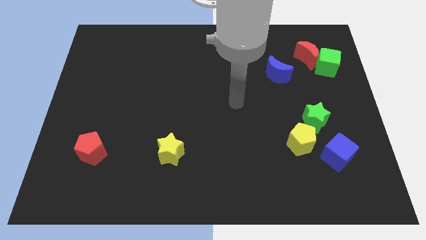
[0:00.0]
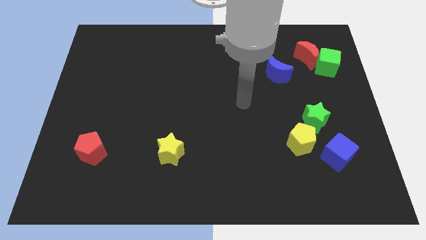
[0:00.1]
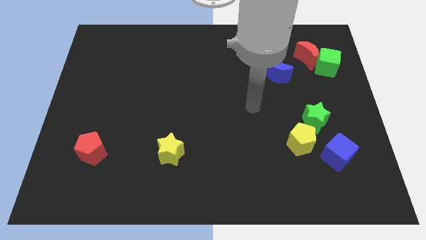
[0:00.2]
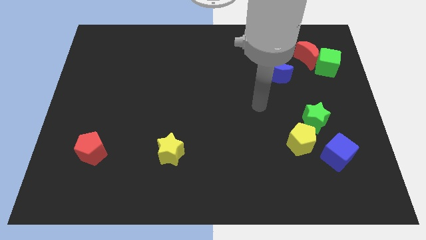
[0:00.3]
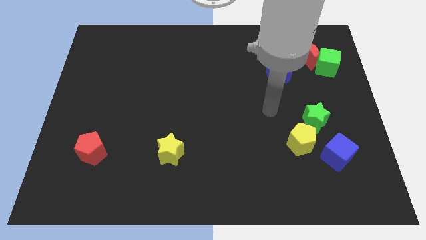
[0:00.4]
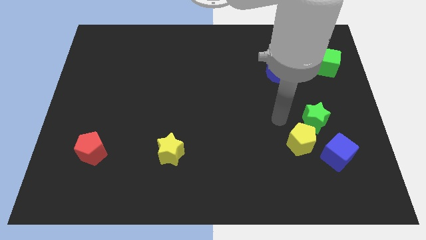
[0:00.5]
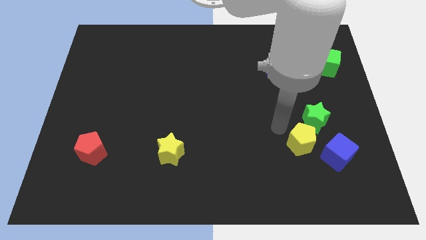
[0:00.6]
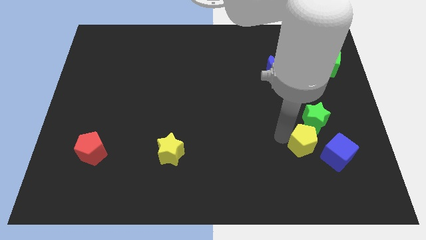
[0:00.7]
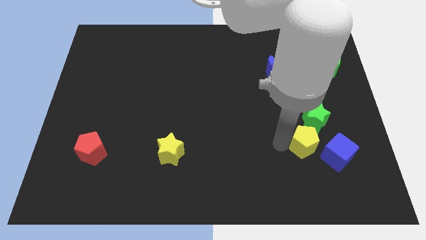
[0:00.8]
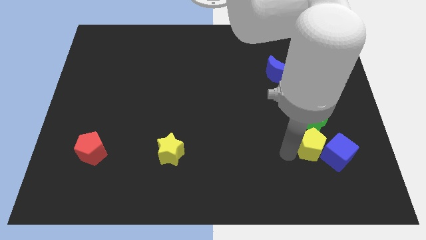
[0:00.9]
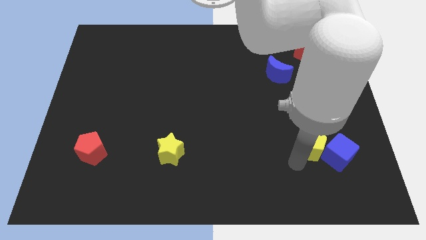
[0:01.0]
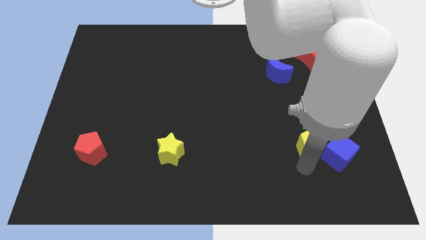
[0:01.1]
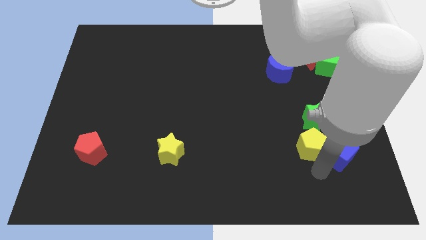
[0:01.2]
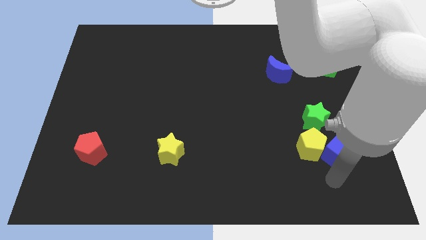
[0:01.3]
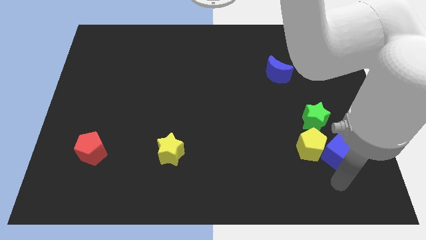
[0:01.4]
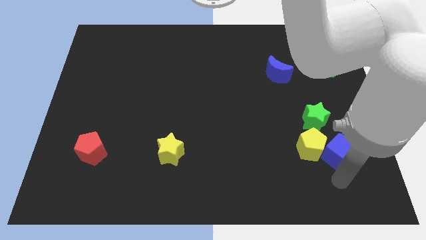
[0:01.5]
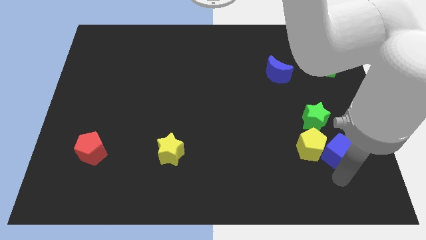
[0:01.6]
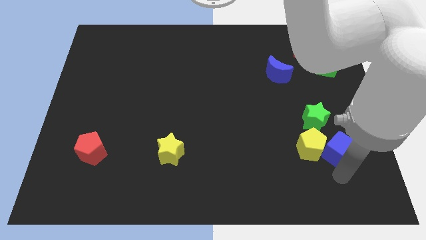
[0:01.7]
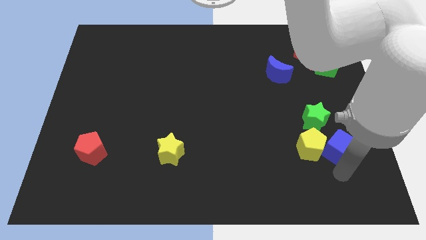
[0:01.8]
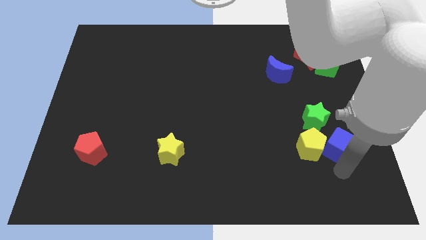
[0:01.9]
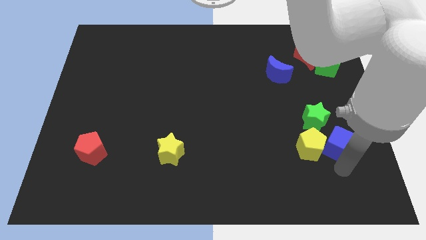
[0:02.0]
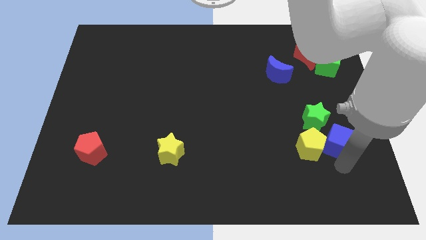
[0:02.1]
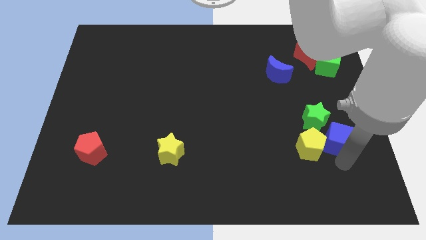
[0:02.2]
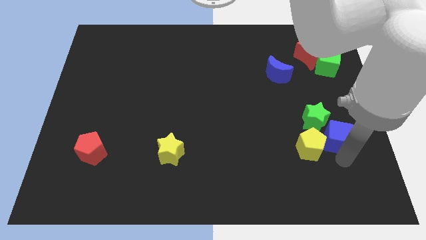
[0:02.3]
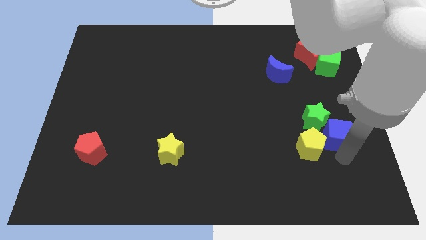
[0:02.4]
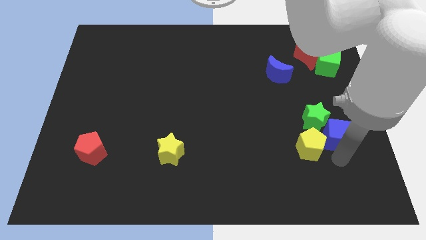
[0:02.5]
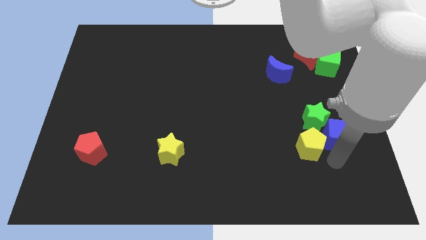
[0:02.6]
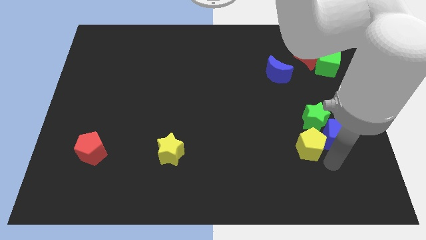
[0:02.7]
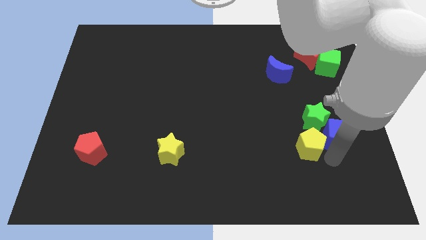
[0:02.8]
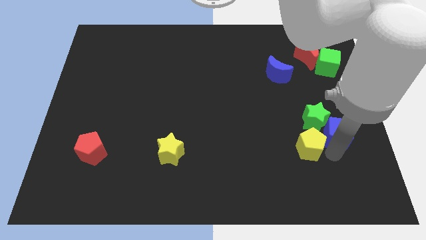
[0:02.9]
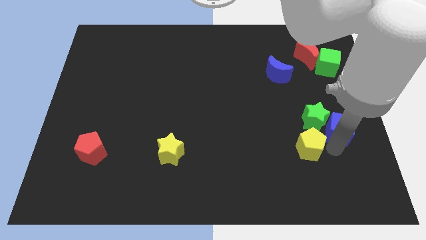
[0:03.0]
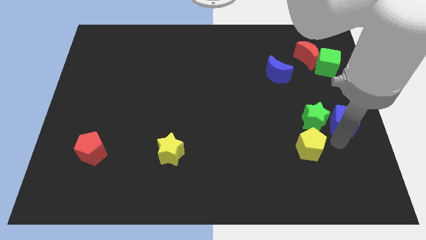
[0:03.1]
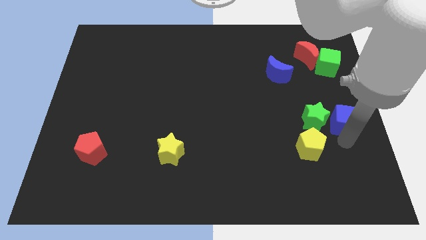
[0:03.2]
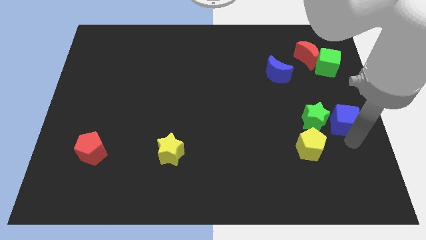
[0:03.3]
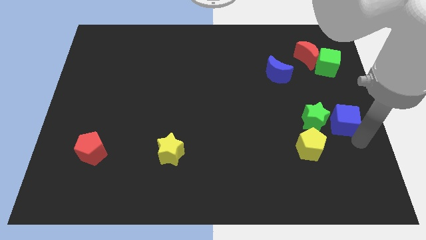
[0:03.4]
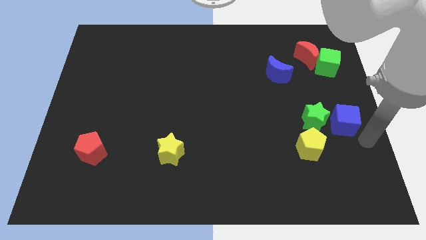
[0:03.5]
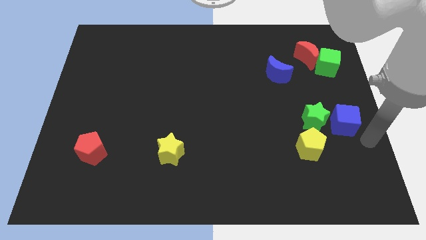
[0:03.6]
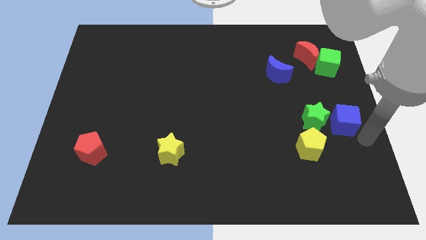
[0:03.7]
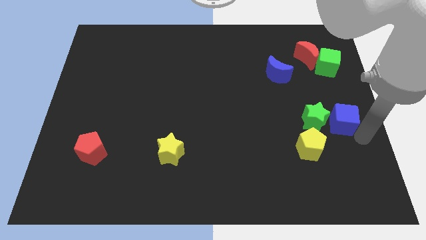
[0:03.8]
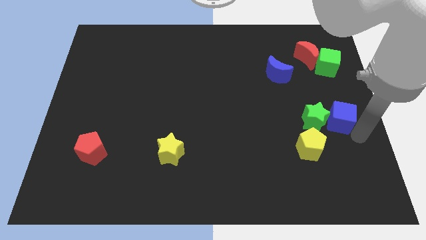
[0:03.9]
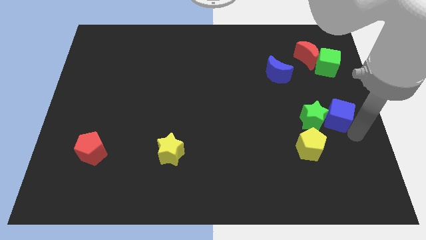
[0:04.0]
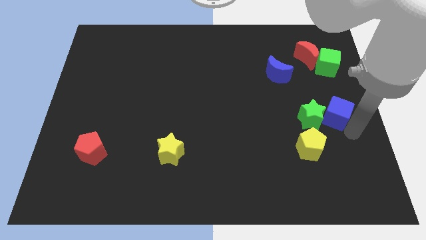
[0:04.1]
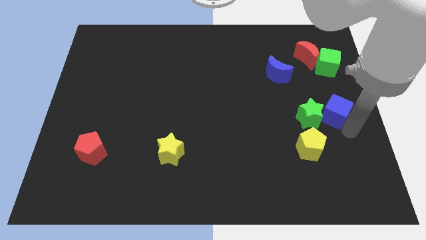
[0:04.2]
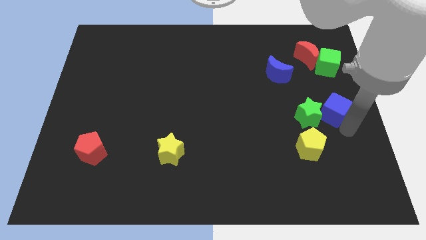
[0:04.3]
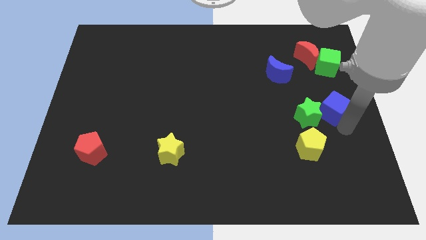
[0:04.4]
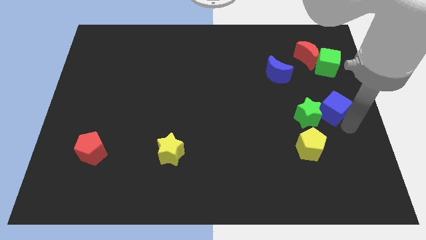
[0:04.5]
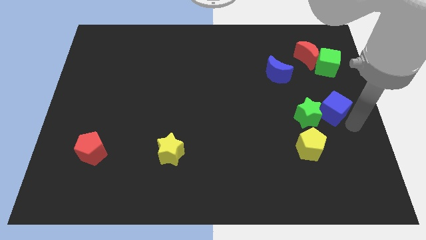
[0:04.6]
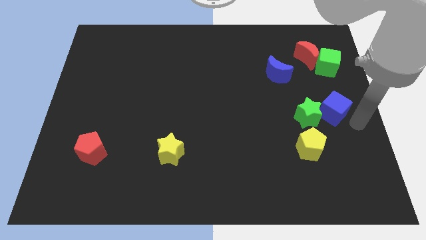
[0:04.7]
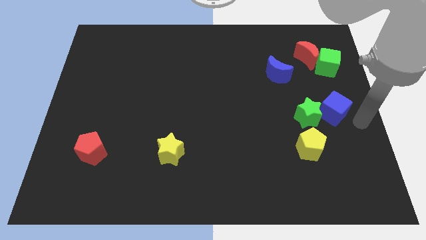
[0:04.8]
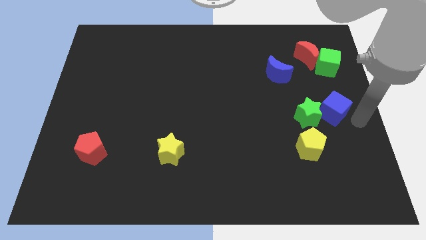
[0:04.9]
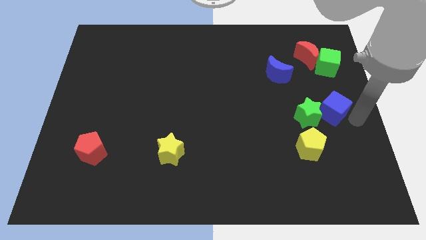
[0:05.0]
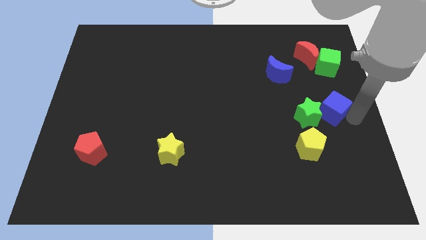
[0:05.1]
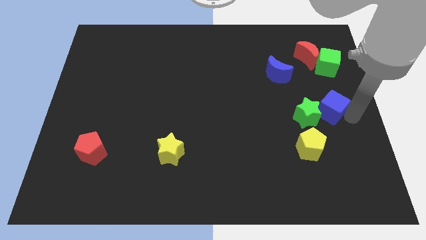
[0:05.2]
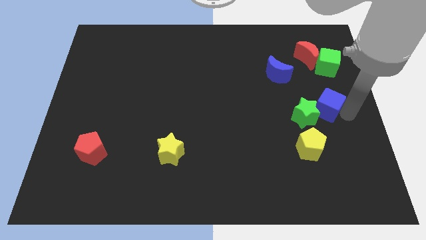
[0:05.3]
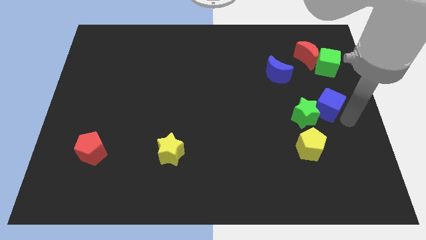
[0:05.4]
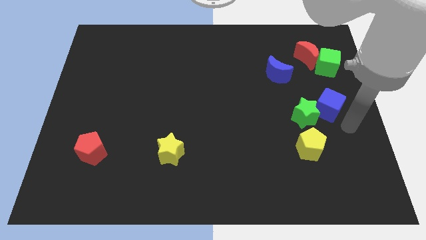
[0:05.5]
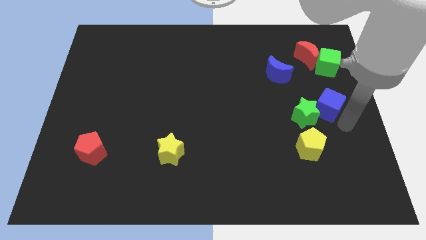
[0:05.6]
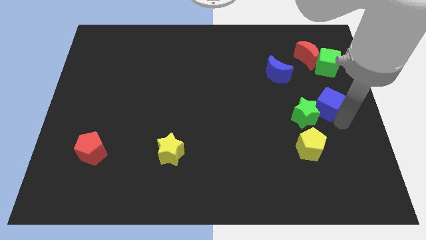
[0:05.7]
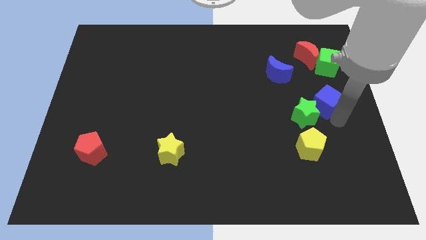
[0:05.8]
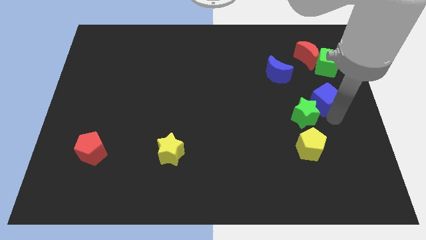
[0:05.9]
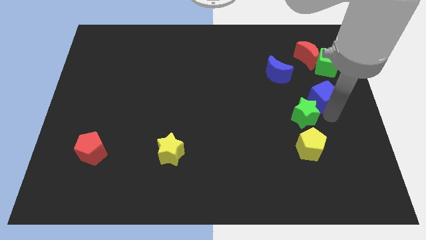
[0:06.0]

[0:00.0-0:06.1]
put the blue cube above the green star

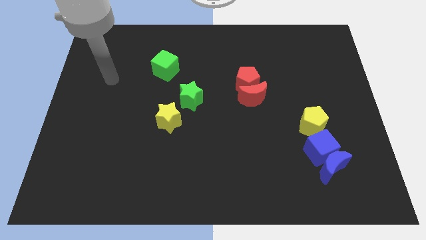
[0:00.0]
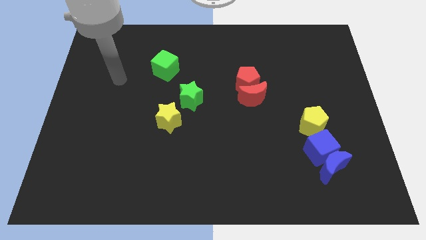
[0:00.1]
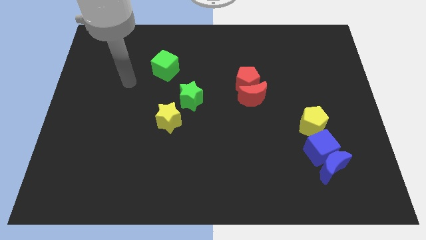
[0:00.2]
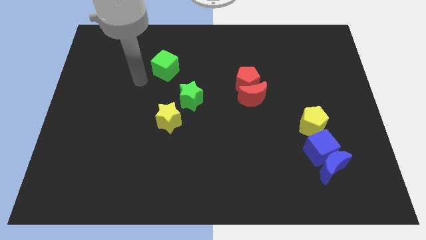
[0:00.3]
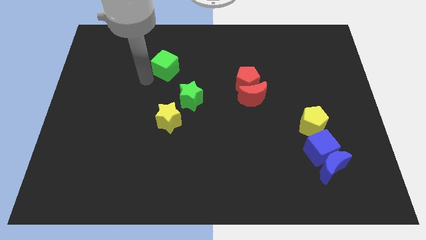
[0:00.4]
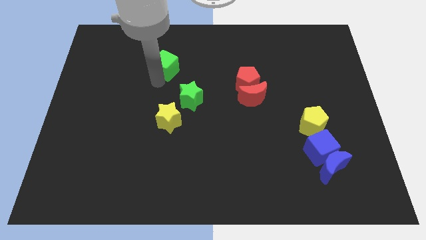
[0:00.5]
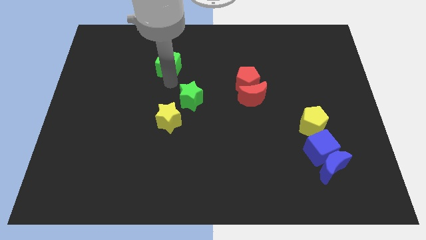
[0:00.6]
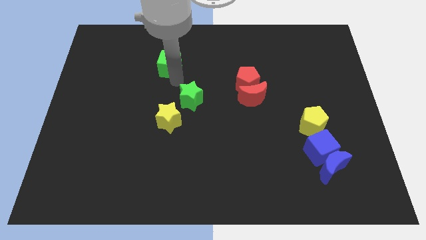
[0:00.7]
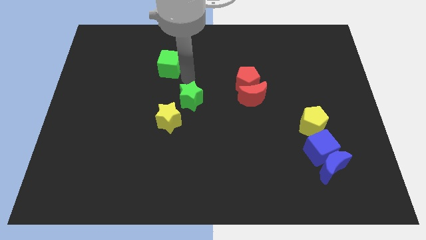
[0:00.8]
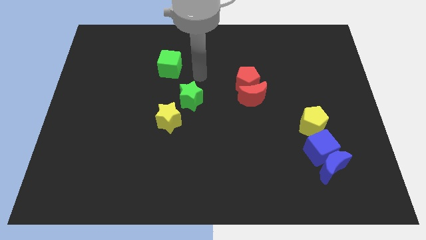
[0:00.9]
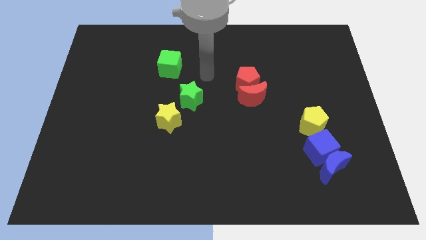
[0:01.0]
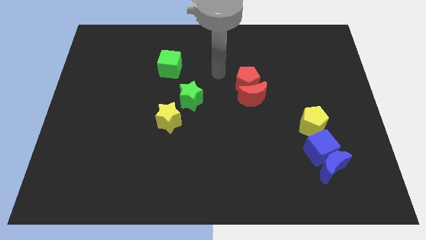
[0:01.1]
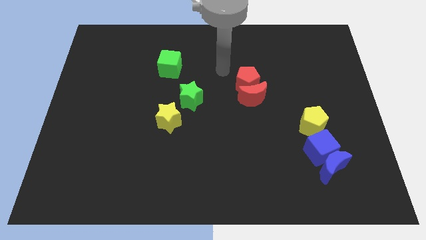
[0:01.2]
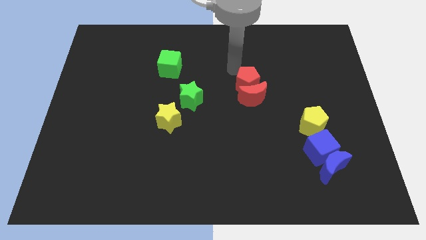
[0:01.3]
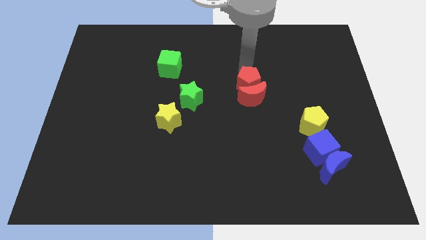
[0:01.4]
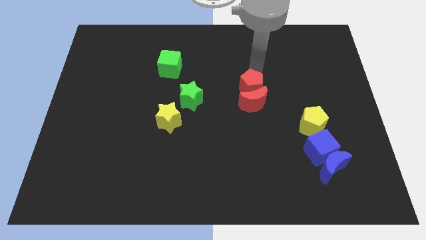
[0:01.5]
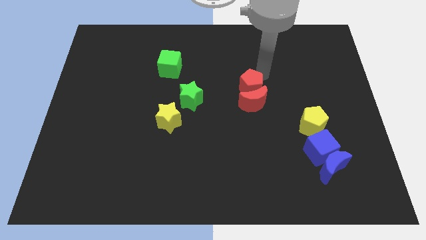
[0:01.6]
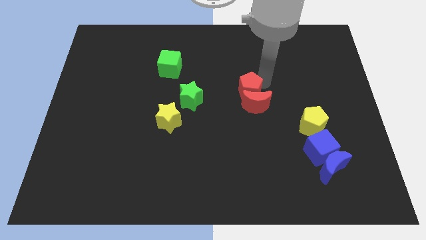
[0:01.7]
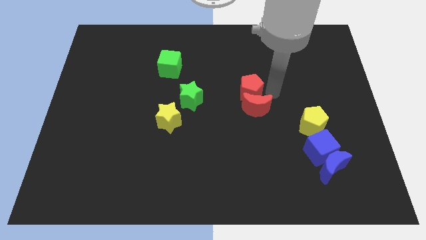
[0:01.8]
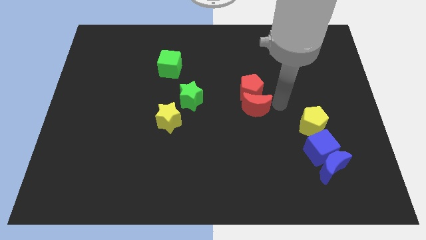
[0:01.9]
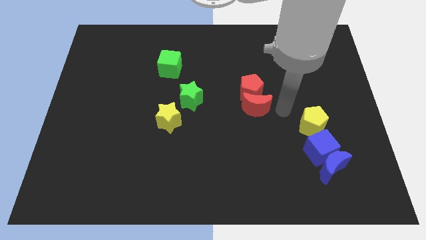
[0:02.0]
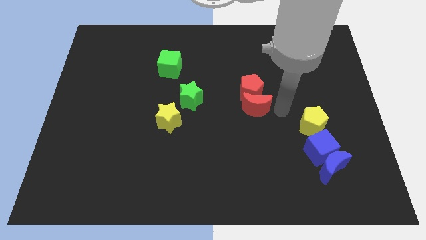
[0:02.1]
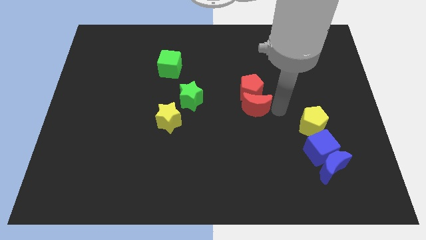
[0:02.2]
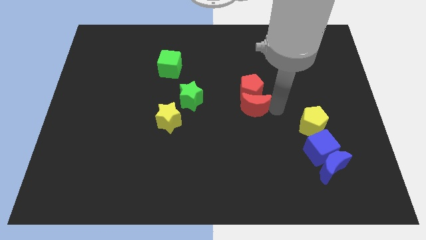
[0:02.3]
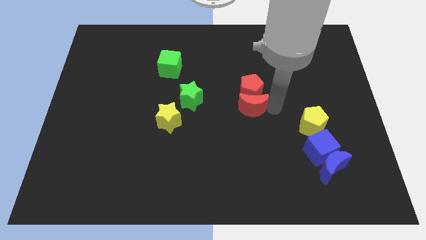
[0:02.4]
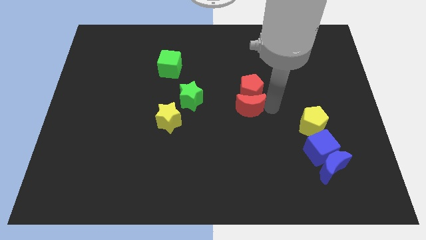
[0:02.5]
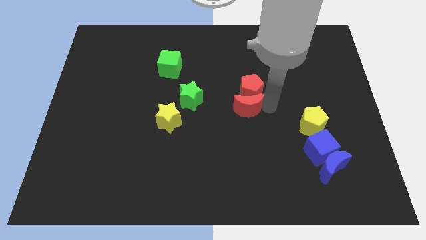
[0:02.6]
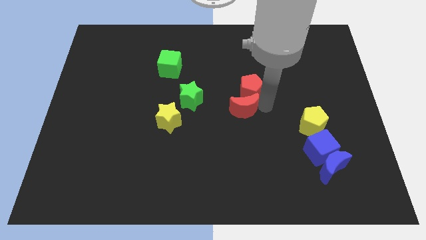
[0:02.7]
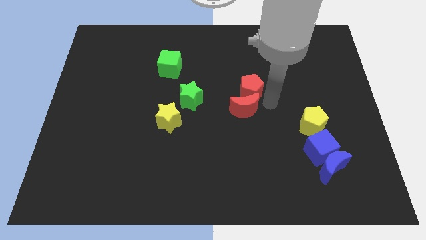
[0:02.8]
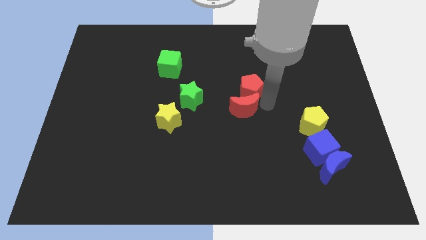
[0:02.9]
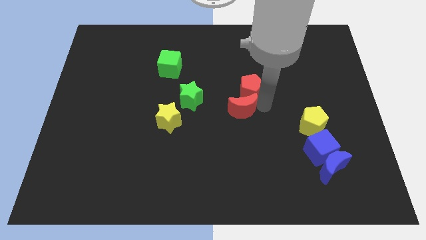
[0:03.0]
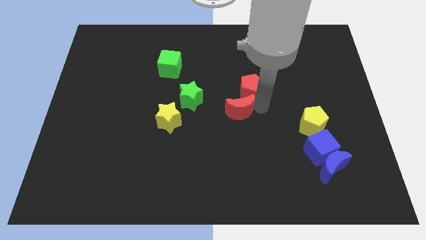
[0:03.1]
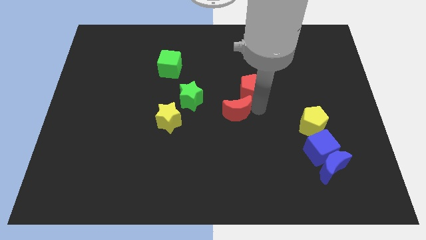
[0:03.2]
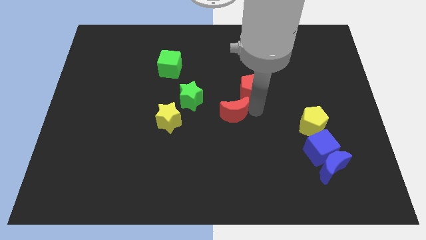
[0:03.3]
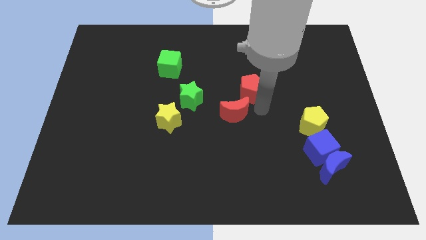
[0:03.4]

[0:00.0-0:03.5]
slide the red moon to the bottom right side of the green star
